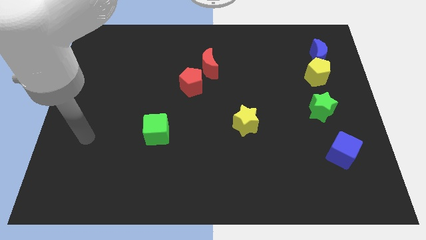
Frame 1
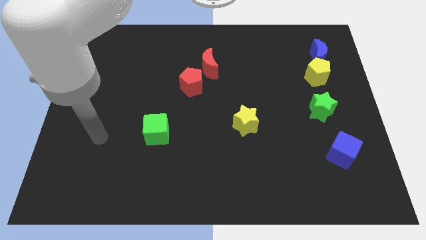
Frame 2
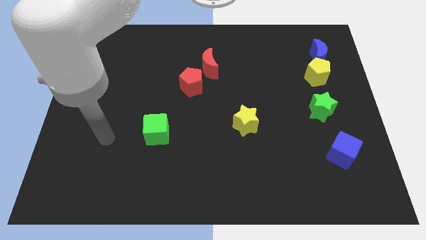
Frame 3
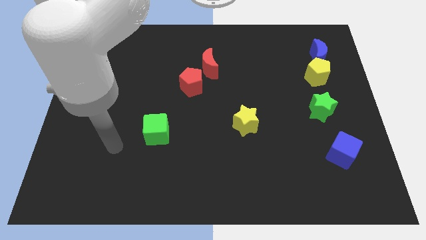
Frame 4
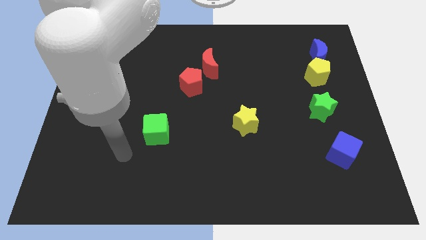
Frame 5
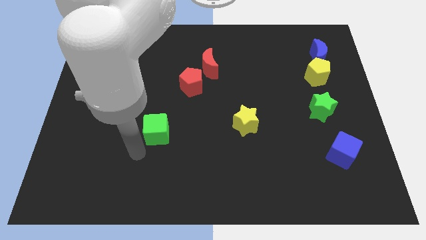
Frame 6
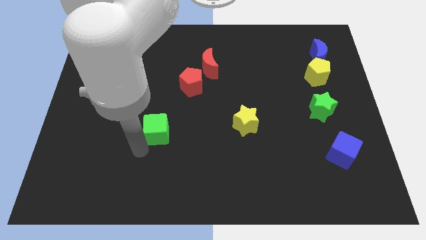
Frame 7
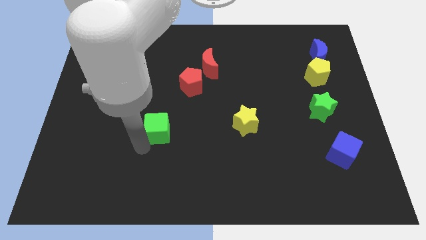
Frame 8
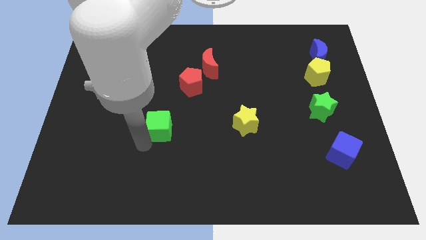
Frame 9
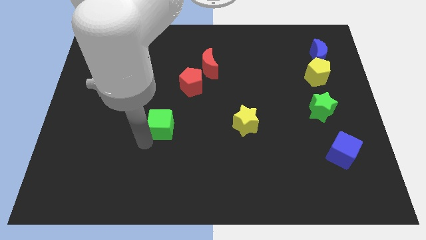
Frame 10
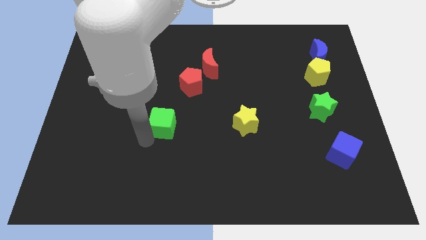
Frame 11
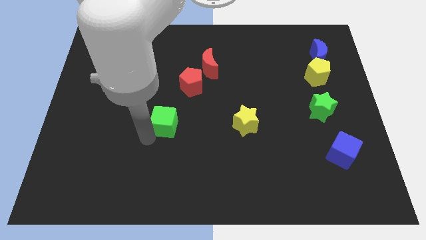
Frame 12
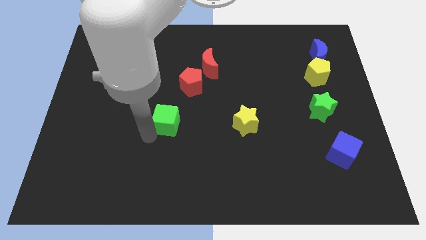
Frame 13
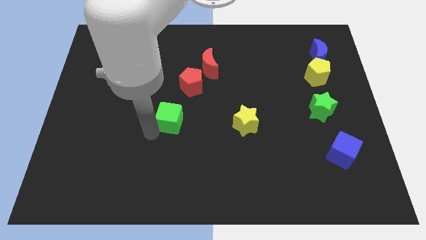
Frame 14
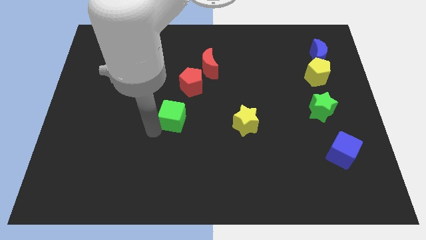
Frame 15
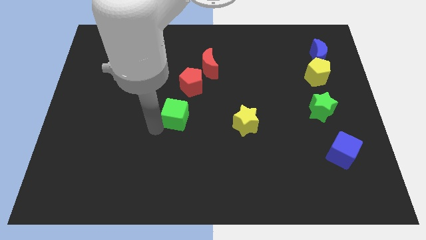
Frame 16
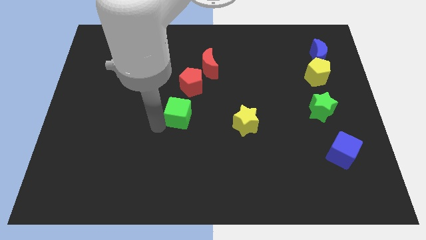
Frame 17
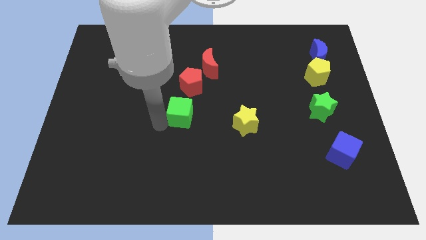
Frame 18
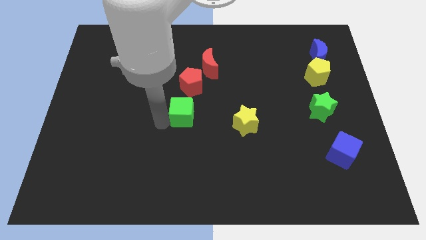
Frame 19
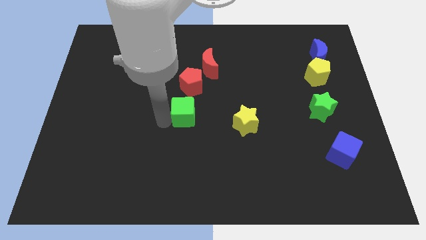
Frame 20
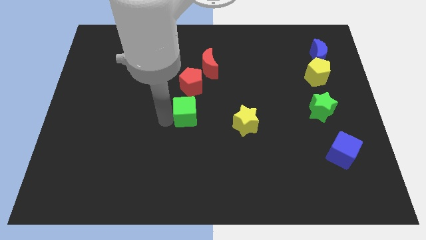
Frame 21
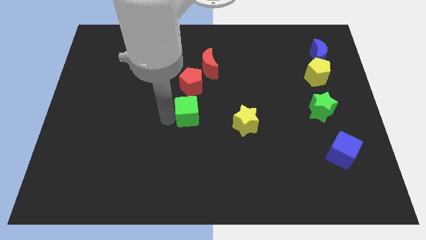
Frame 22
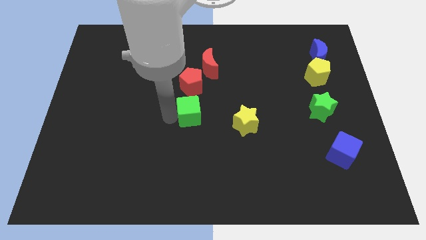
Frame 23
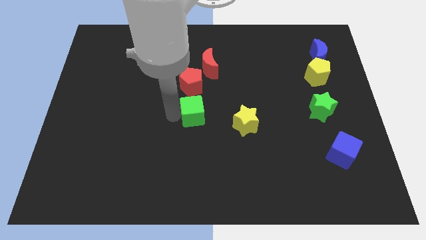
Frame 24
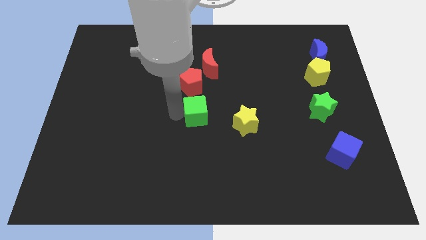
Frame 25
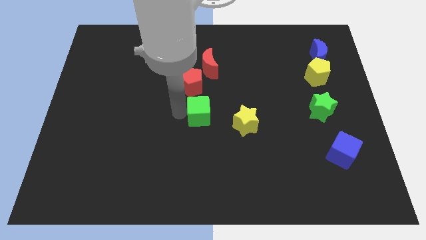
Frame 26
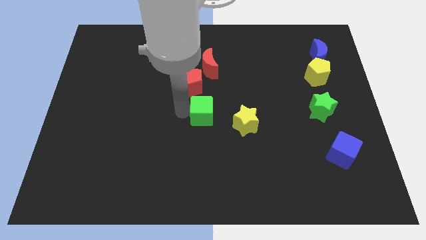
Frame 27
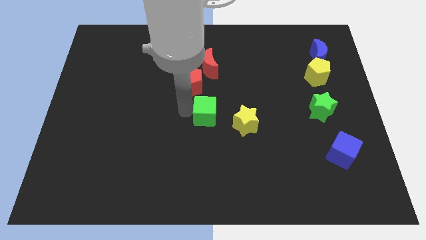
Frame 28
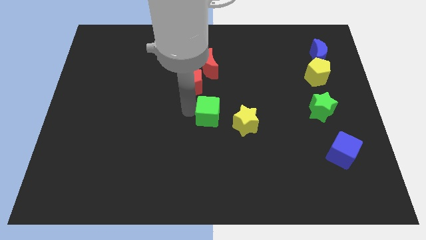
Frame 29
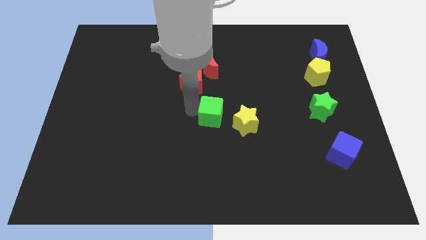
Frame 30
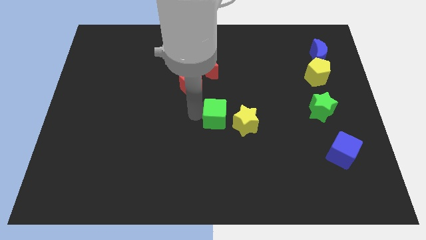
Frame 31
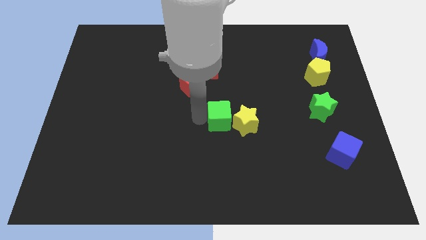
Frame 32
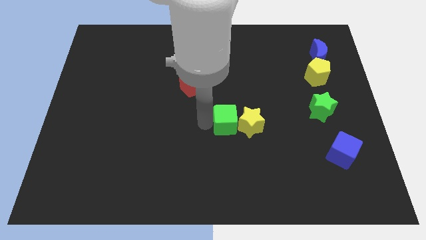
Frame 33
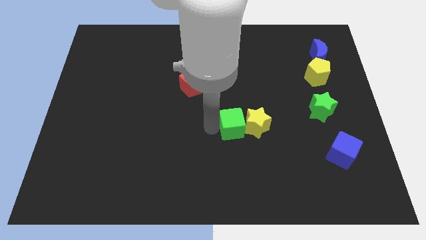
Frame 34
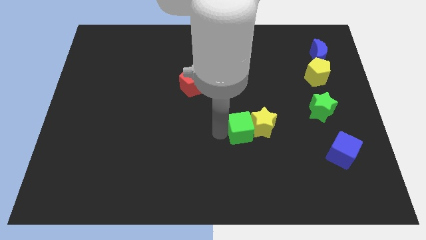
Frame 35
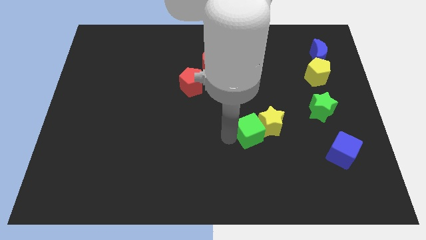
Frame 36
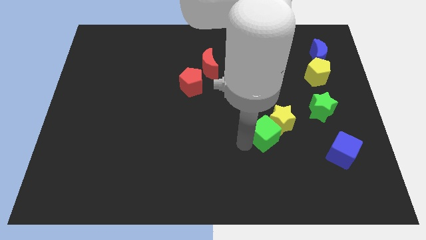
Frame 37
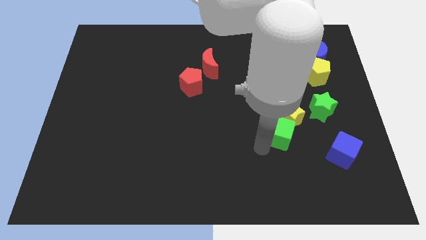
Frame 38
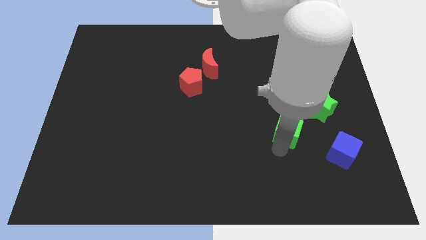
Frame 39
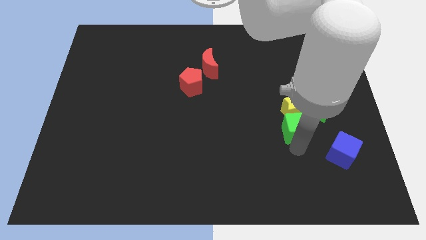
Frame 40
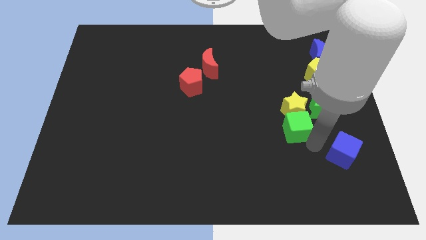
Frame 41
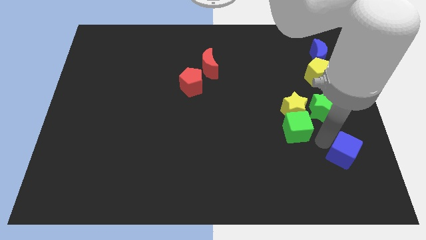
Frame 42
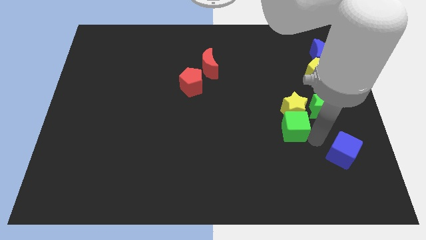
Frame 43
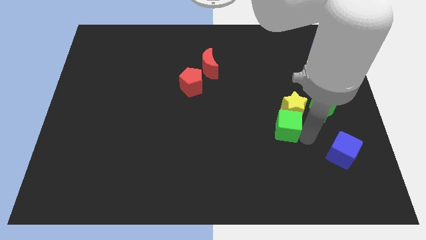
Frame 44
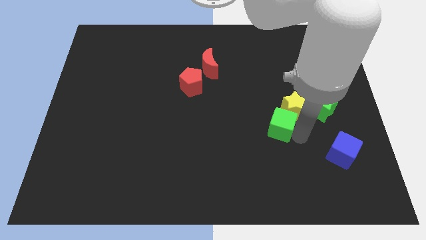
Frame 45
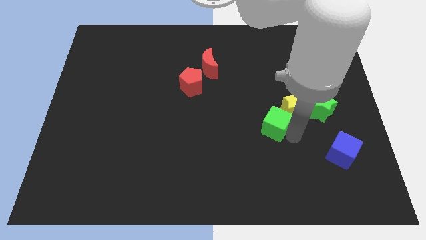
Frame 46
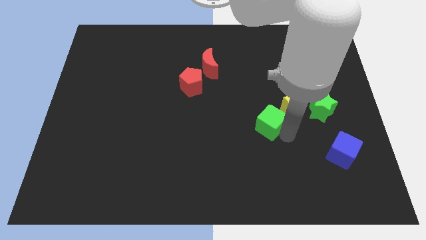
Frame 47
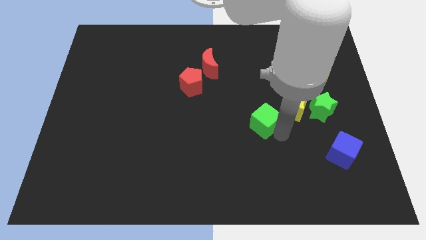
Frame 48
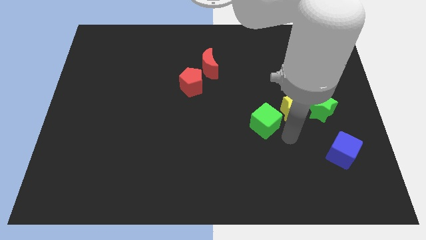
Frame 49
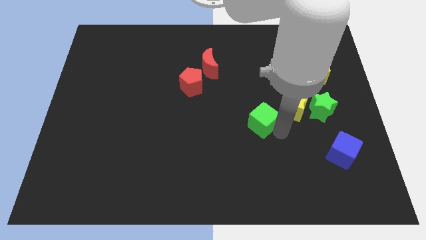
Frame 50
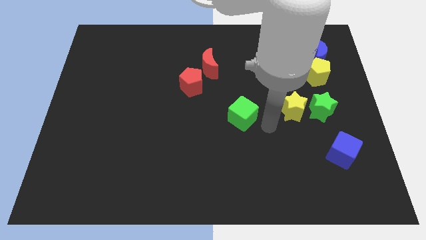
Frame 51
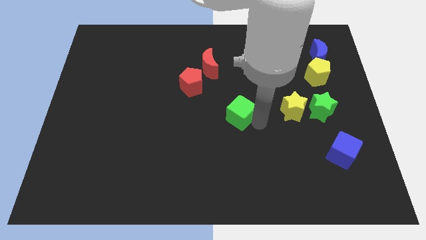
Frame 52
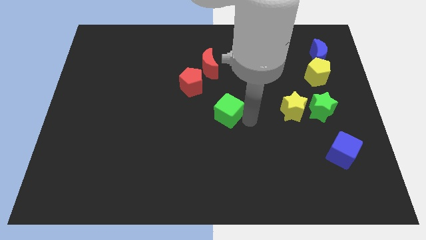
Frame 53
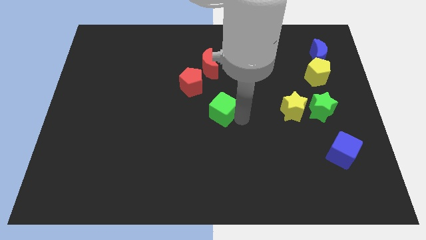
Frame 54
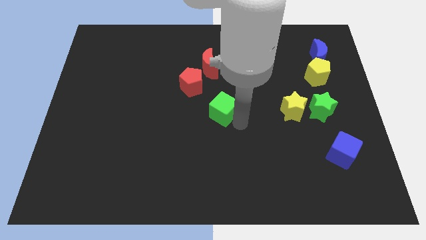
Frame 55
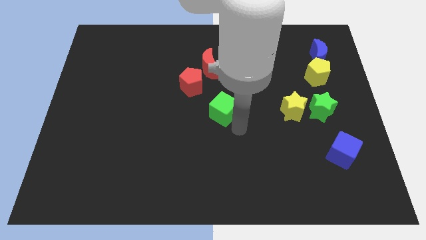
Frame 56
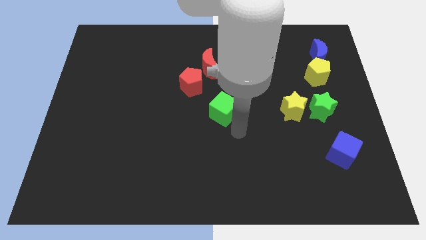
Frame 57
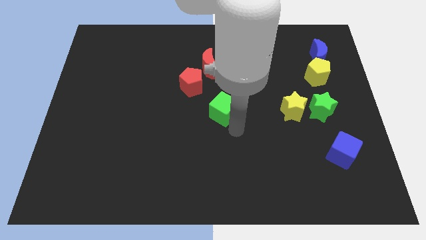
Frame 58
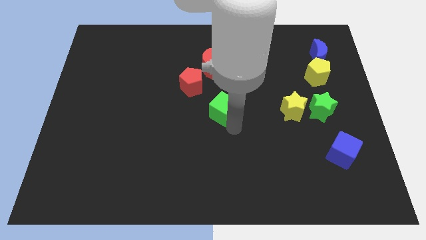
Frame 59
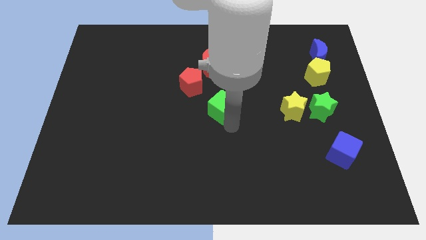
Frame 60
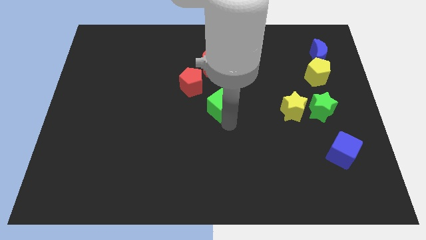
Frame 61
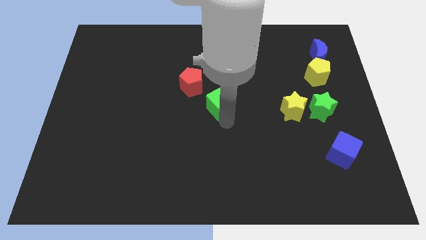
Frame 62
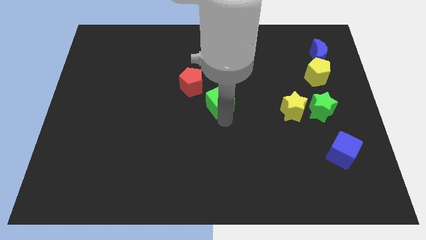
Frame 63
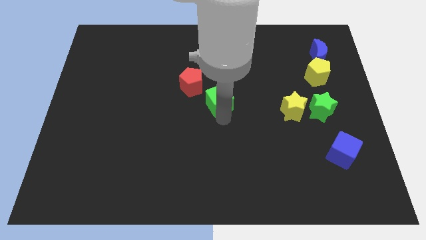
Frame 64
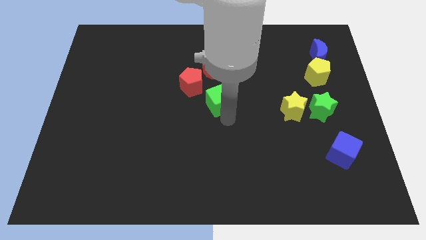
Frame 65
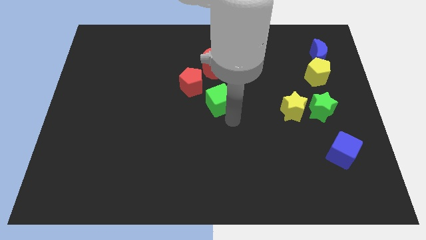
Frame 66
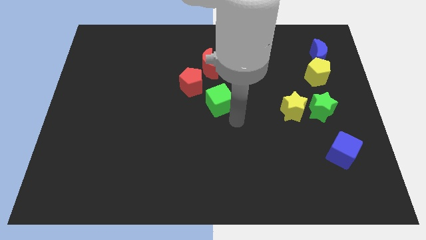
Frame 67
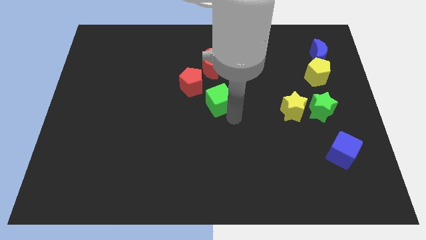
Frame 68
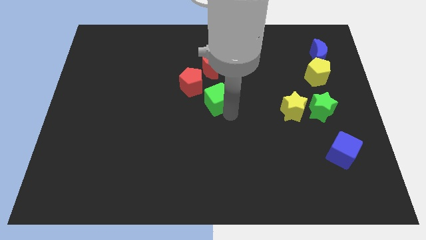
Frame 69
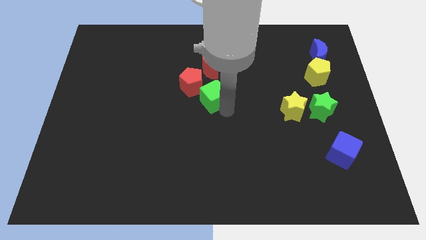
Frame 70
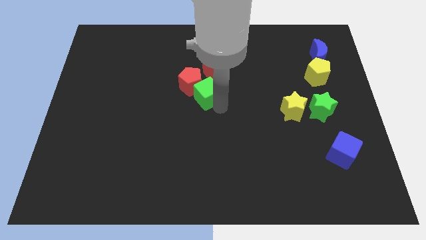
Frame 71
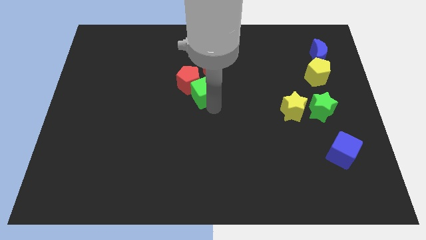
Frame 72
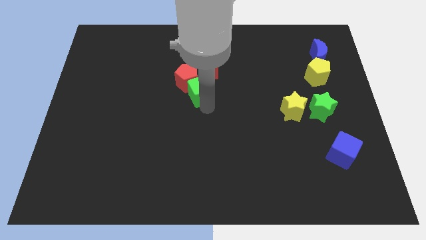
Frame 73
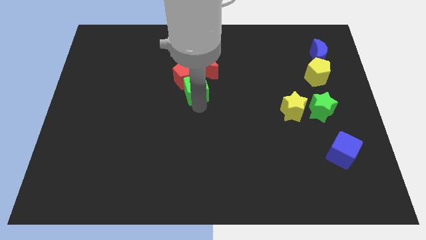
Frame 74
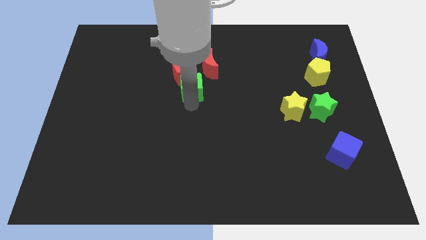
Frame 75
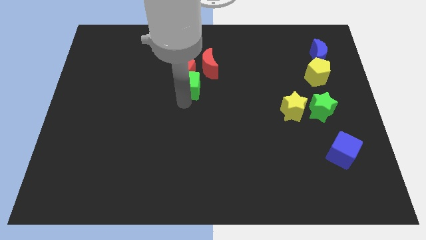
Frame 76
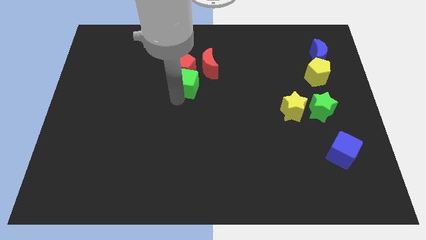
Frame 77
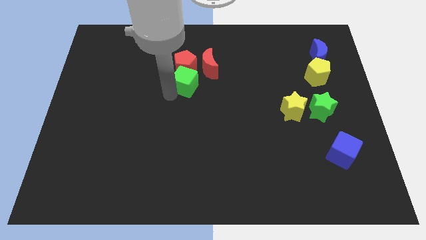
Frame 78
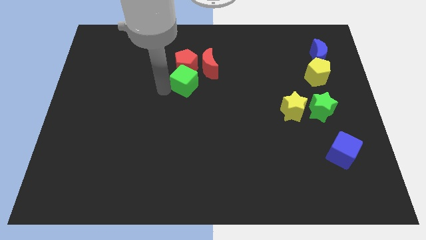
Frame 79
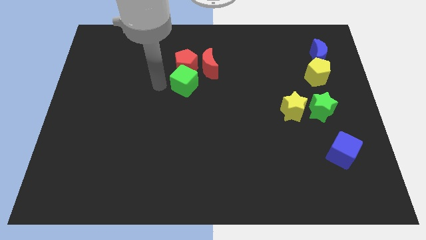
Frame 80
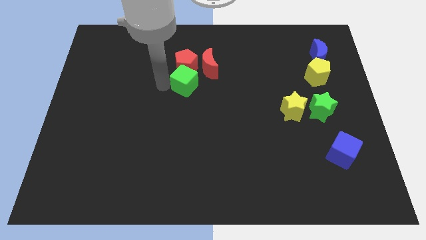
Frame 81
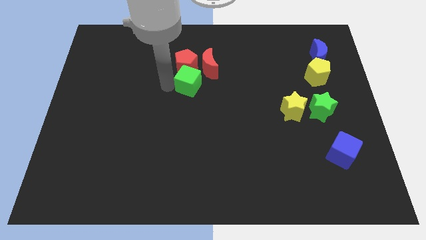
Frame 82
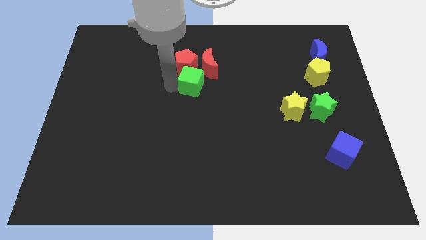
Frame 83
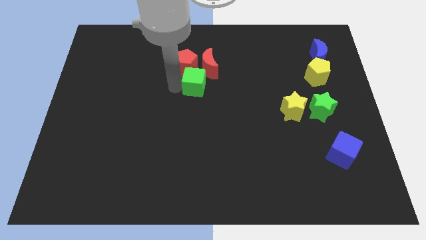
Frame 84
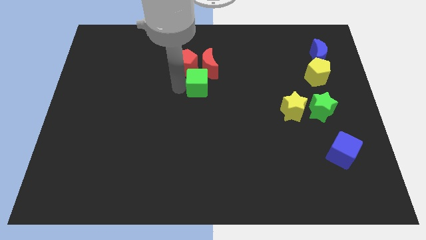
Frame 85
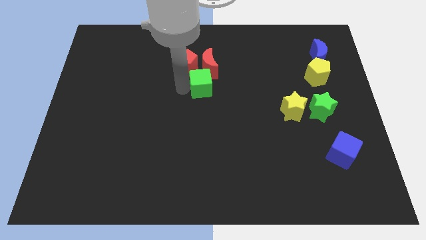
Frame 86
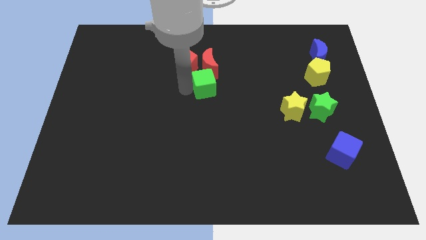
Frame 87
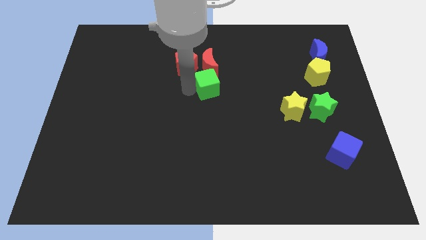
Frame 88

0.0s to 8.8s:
move the green cube to the bottom right of the red moon
